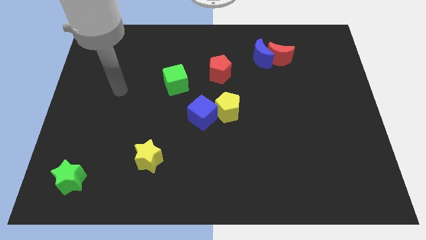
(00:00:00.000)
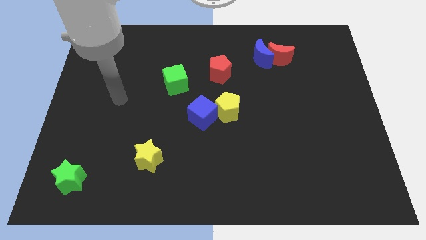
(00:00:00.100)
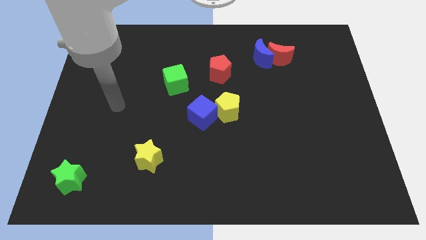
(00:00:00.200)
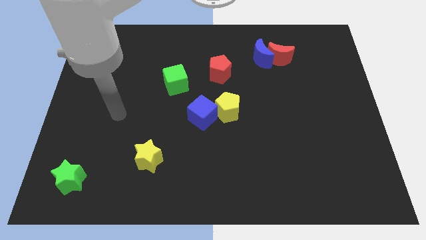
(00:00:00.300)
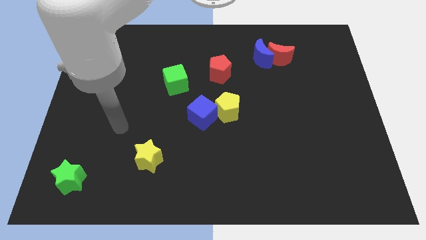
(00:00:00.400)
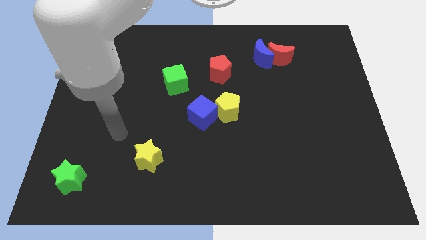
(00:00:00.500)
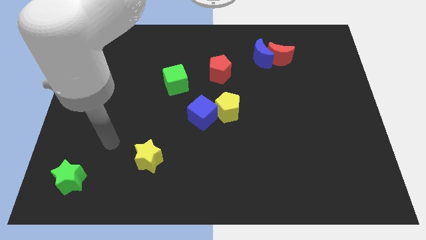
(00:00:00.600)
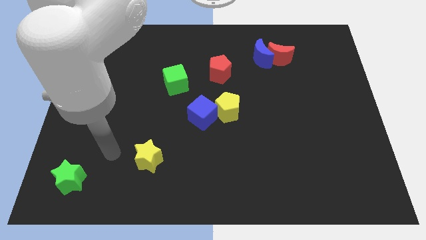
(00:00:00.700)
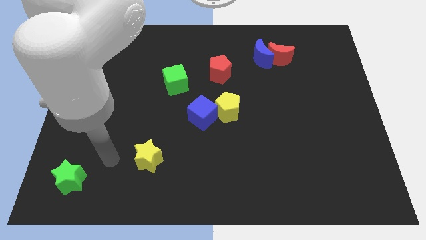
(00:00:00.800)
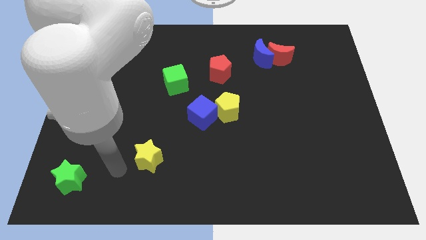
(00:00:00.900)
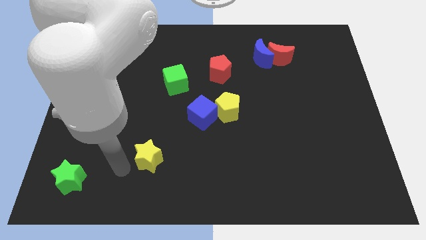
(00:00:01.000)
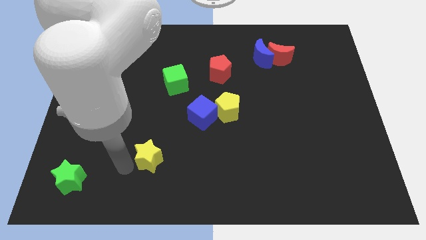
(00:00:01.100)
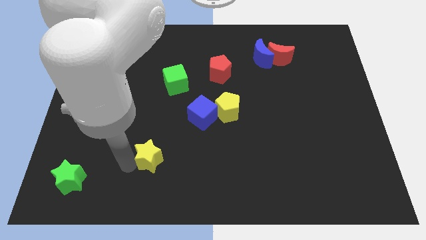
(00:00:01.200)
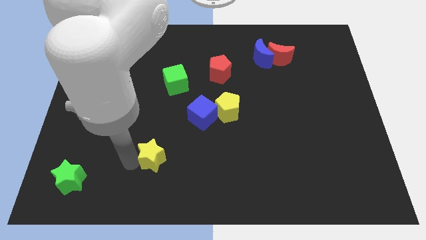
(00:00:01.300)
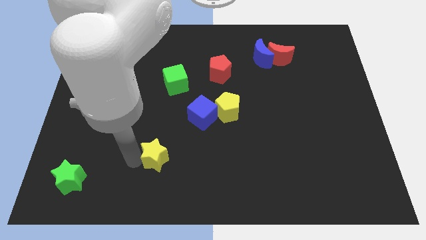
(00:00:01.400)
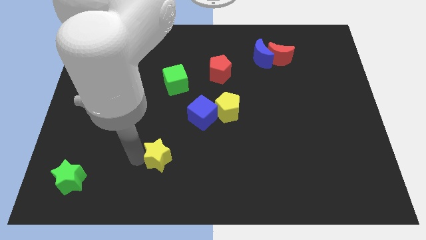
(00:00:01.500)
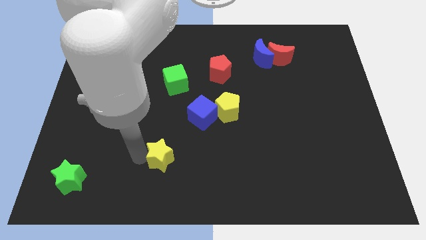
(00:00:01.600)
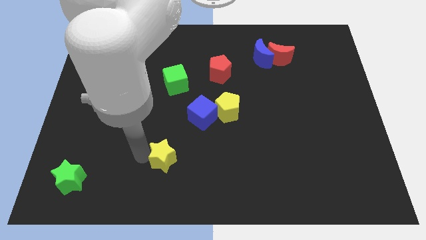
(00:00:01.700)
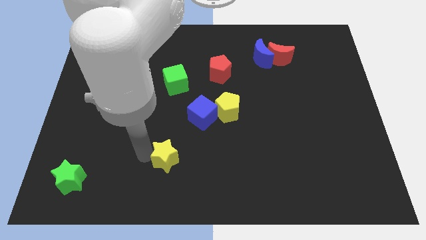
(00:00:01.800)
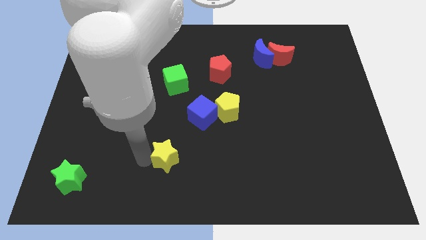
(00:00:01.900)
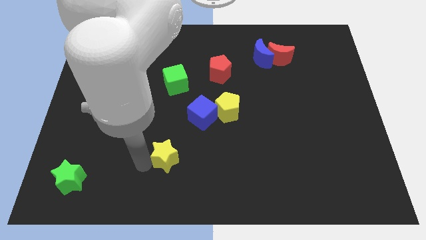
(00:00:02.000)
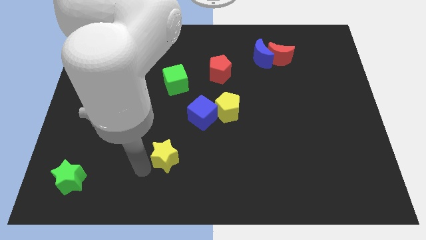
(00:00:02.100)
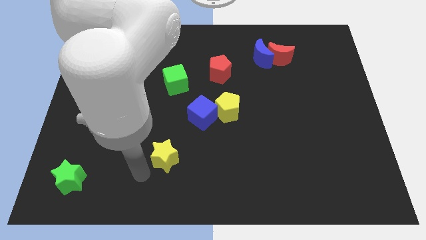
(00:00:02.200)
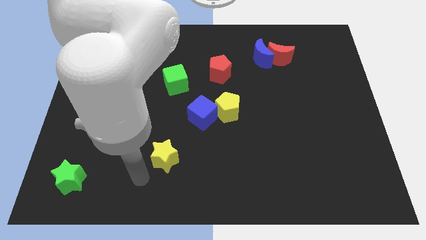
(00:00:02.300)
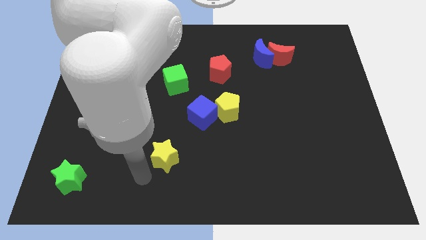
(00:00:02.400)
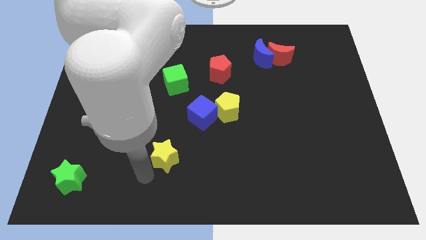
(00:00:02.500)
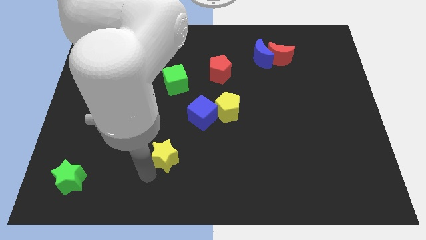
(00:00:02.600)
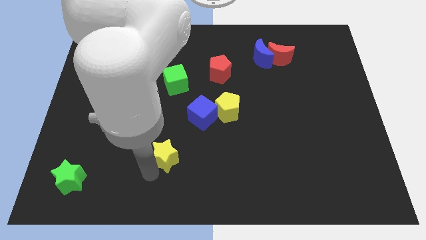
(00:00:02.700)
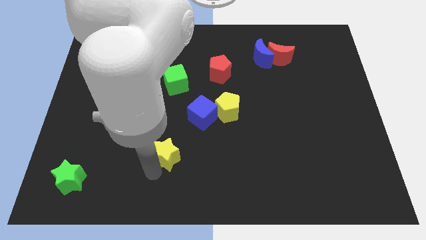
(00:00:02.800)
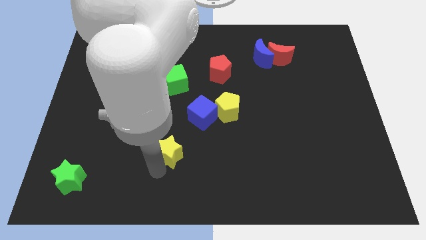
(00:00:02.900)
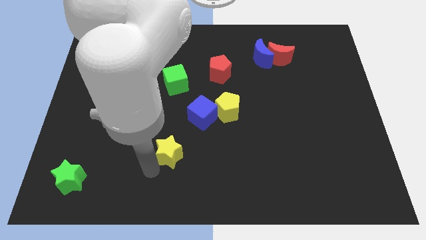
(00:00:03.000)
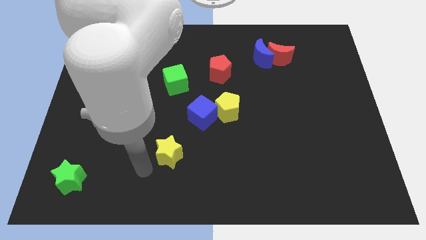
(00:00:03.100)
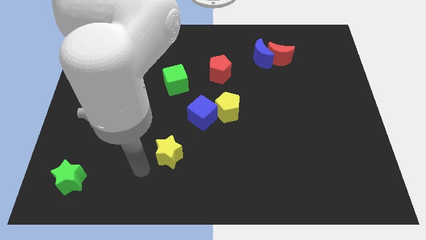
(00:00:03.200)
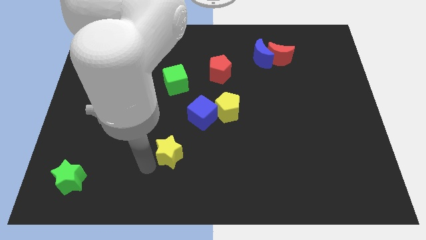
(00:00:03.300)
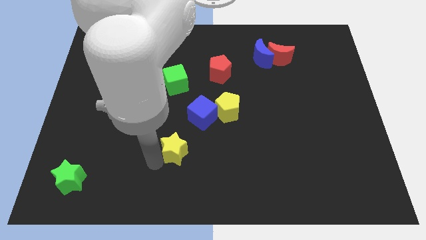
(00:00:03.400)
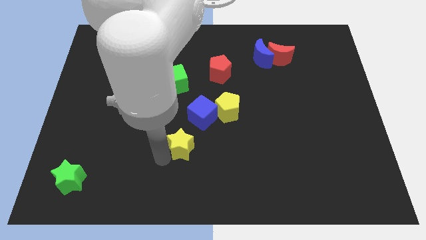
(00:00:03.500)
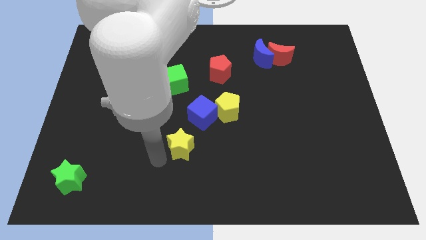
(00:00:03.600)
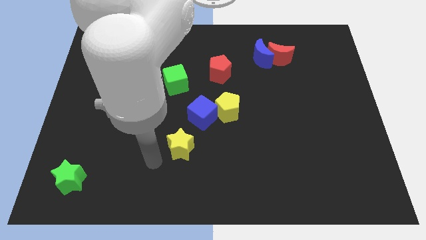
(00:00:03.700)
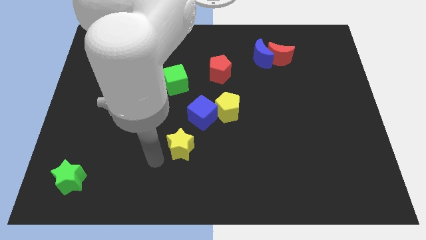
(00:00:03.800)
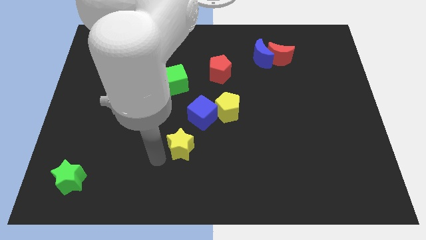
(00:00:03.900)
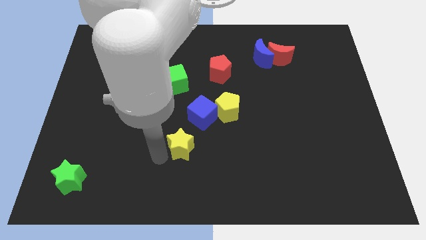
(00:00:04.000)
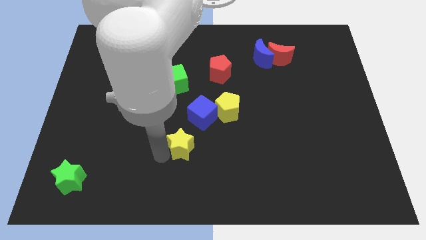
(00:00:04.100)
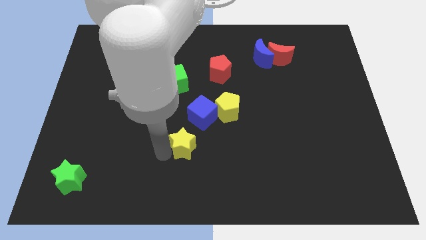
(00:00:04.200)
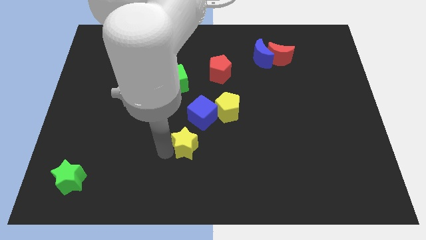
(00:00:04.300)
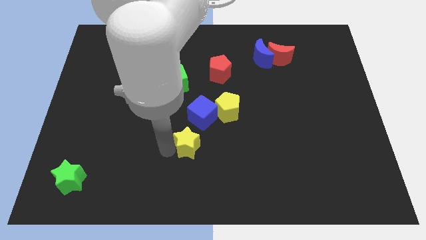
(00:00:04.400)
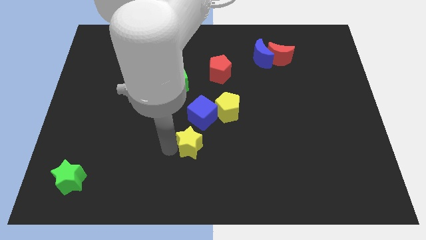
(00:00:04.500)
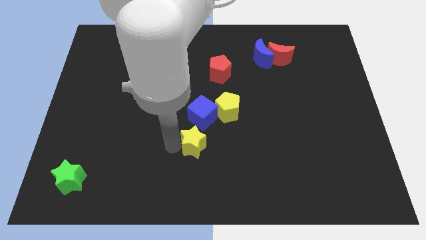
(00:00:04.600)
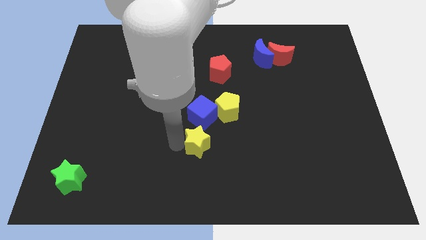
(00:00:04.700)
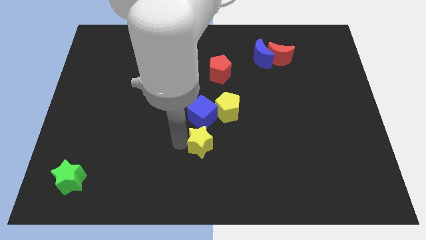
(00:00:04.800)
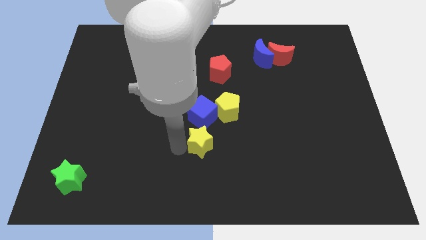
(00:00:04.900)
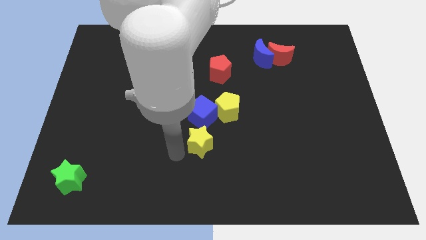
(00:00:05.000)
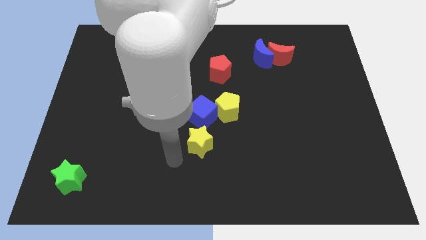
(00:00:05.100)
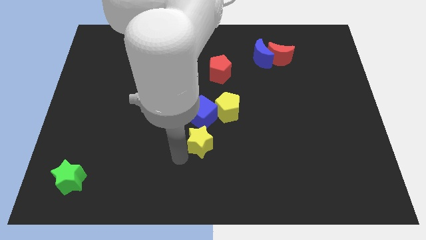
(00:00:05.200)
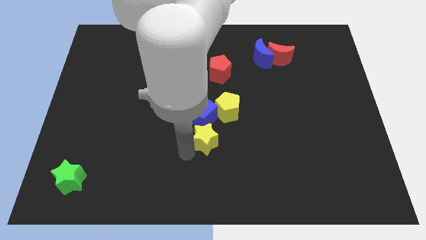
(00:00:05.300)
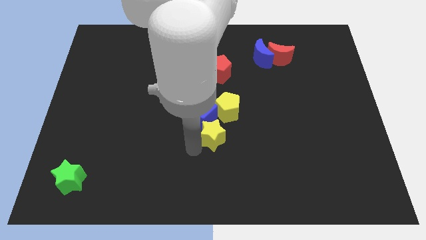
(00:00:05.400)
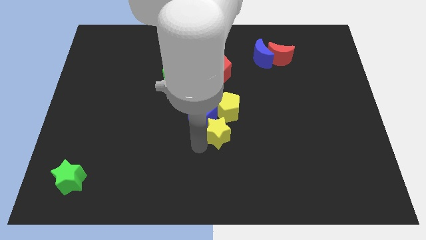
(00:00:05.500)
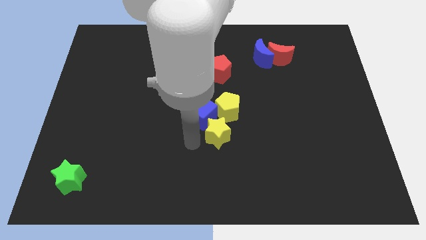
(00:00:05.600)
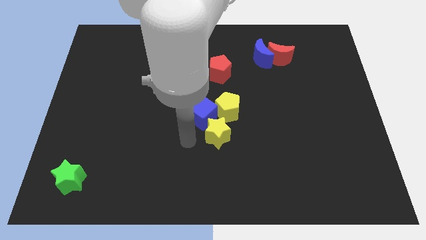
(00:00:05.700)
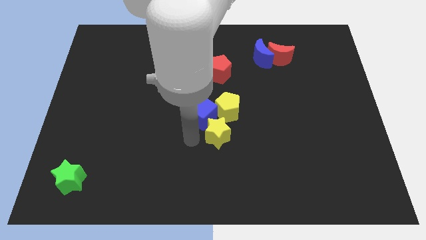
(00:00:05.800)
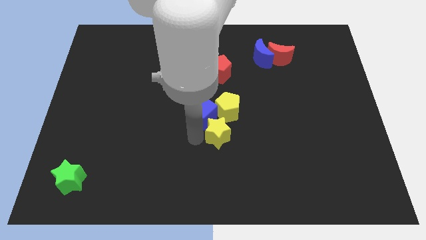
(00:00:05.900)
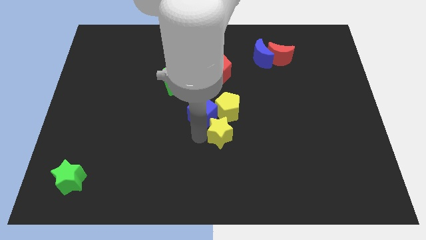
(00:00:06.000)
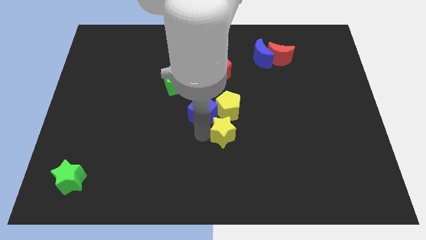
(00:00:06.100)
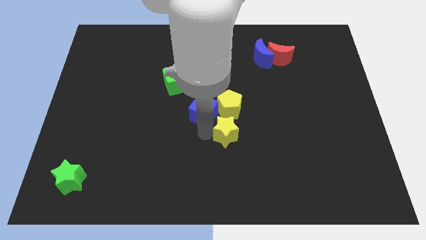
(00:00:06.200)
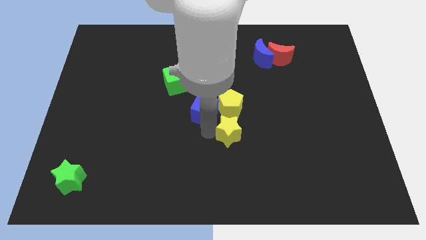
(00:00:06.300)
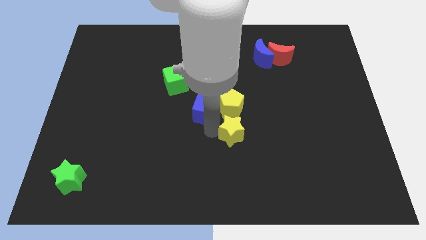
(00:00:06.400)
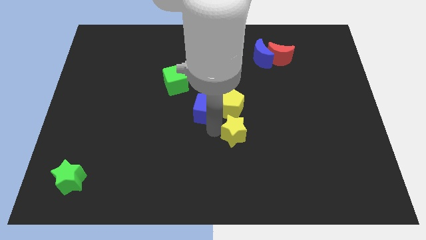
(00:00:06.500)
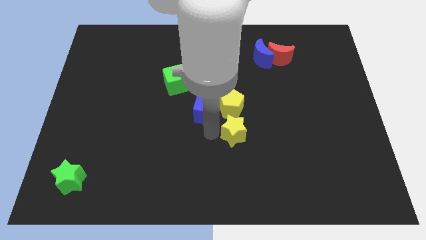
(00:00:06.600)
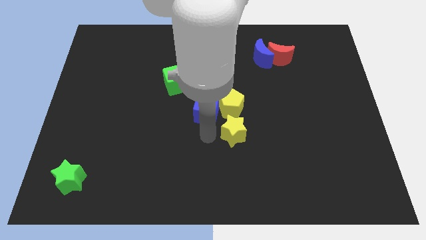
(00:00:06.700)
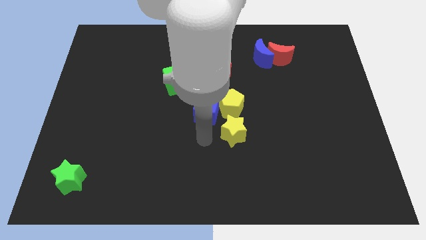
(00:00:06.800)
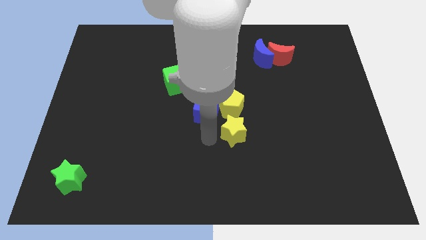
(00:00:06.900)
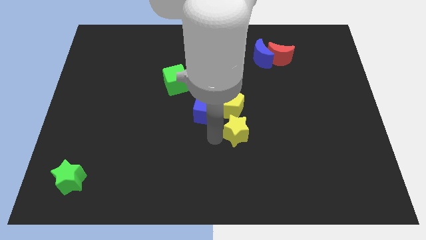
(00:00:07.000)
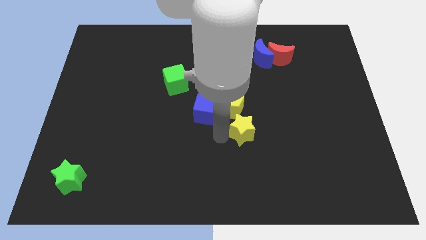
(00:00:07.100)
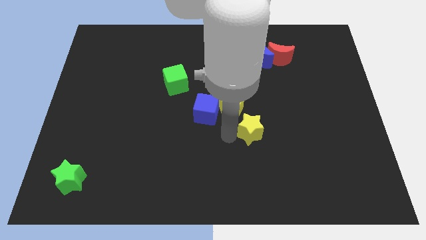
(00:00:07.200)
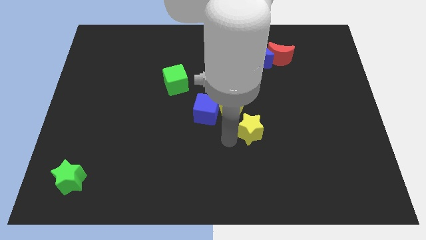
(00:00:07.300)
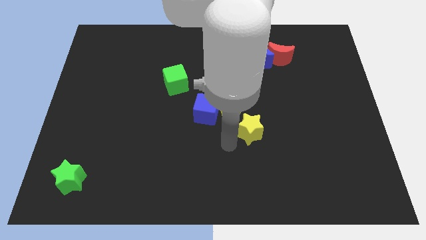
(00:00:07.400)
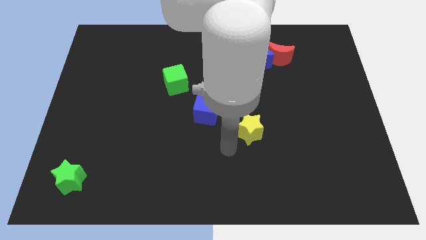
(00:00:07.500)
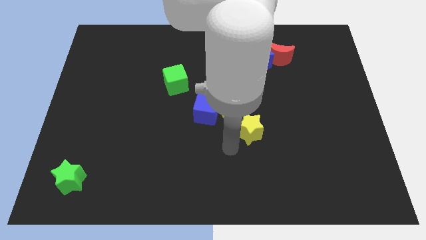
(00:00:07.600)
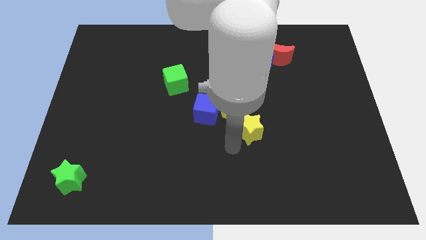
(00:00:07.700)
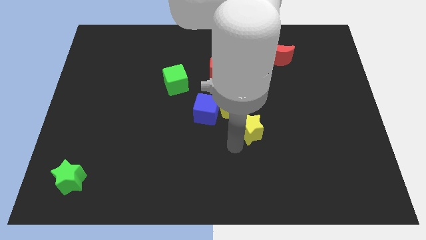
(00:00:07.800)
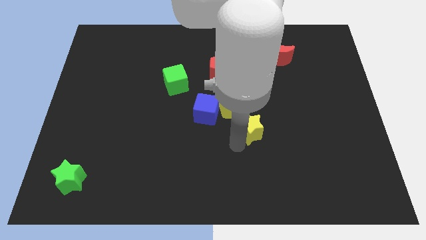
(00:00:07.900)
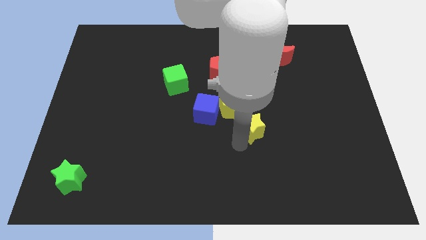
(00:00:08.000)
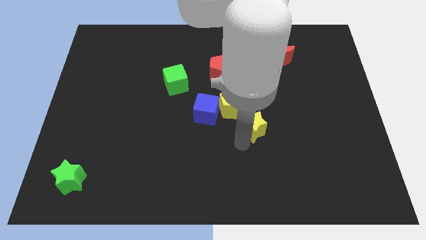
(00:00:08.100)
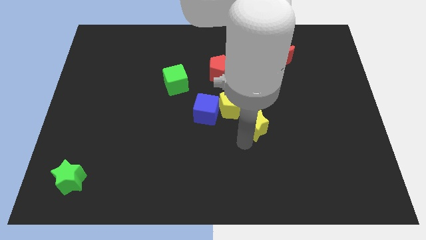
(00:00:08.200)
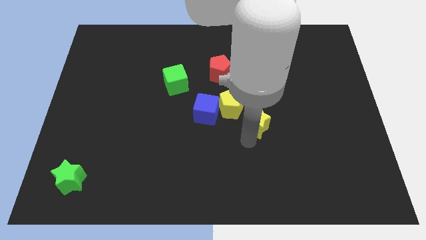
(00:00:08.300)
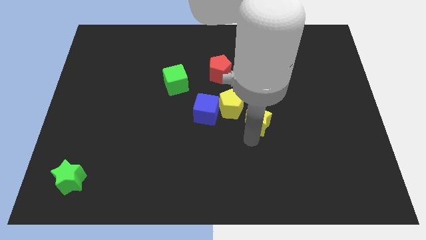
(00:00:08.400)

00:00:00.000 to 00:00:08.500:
put the yellow star to the right side of the yellow pentagon
